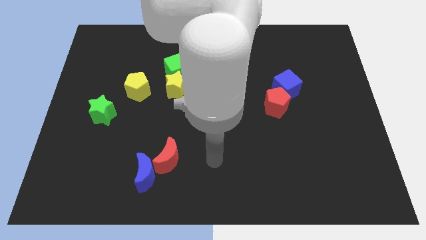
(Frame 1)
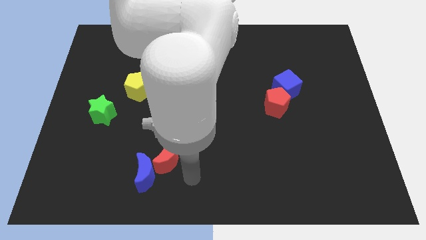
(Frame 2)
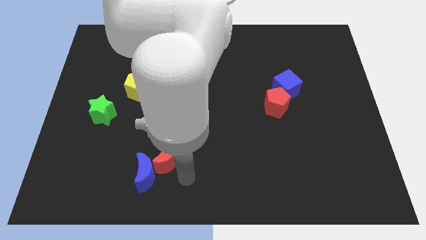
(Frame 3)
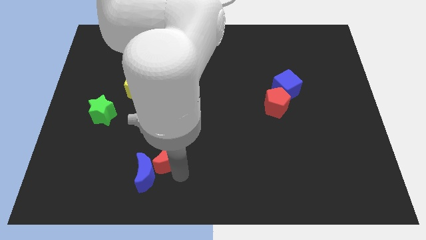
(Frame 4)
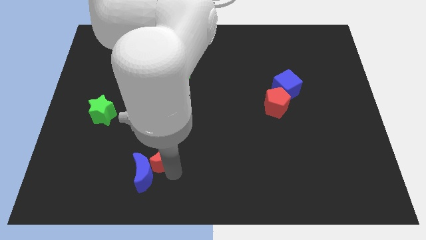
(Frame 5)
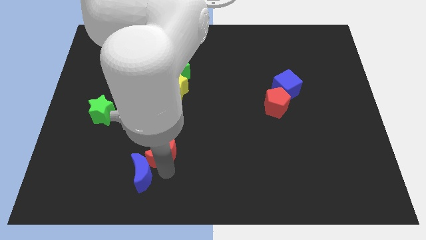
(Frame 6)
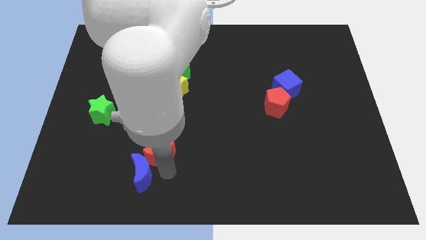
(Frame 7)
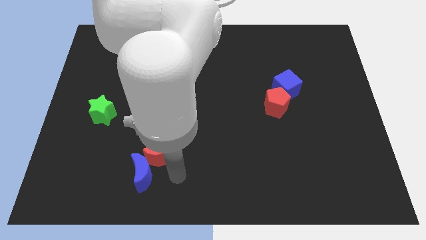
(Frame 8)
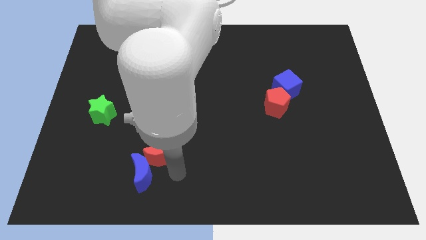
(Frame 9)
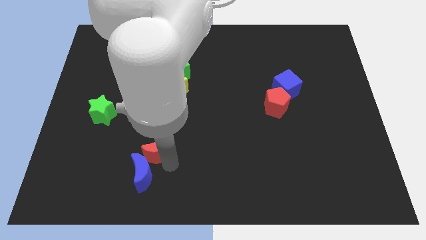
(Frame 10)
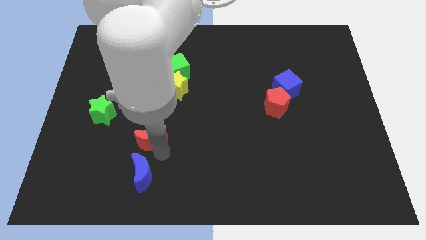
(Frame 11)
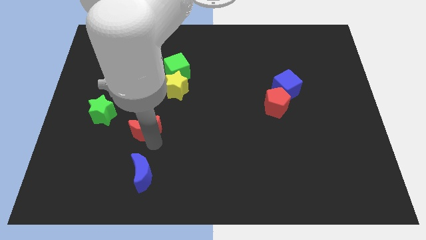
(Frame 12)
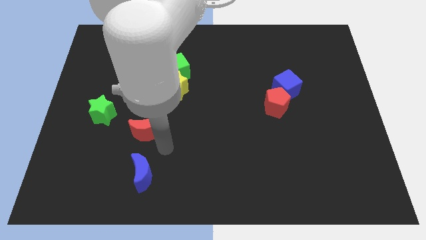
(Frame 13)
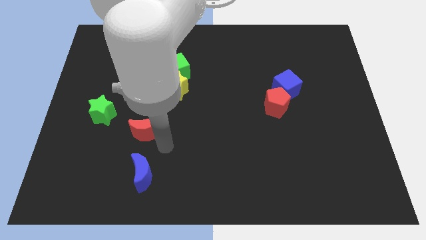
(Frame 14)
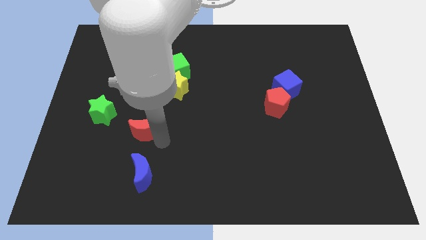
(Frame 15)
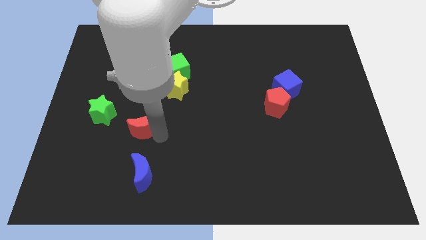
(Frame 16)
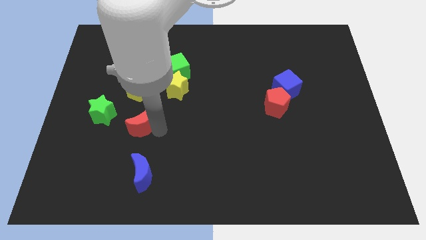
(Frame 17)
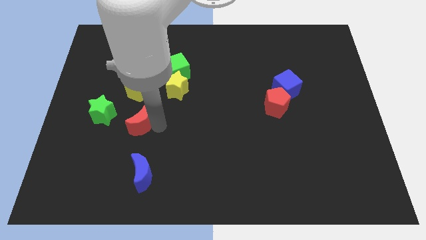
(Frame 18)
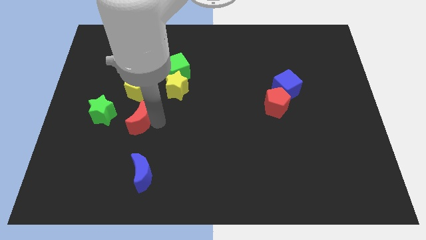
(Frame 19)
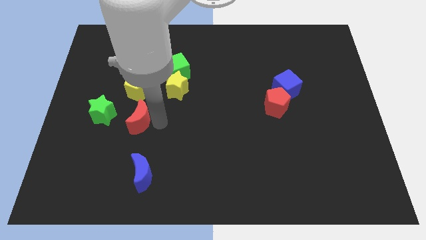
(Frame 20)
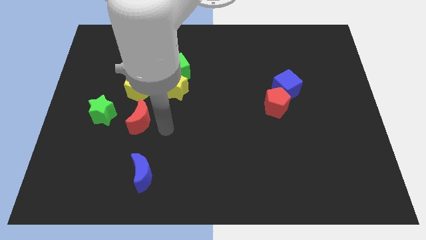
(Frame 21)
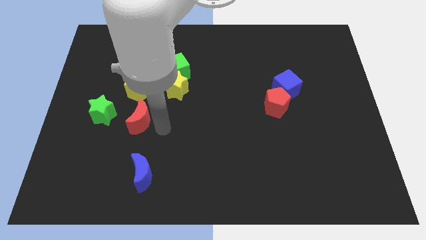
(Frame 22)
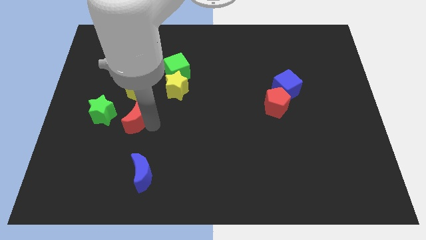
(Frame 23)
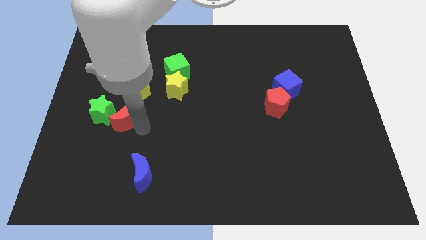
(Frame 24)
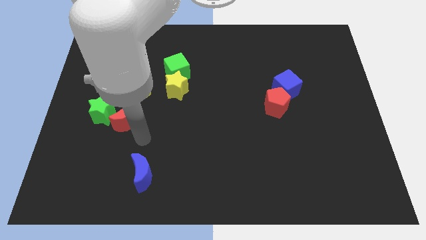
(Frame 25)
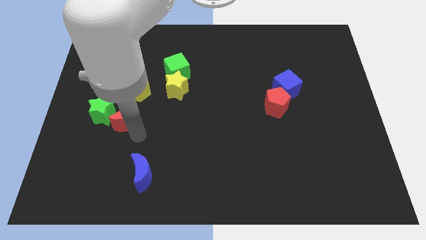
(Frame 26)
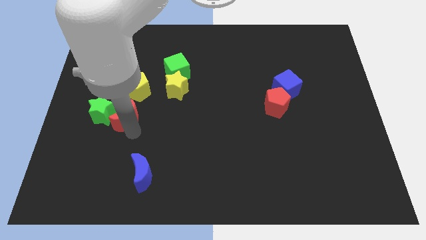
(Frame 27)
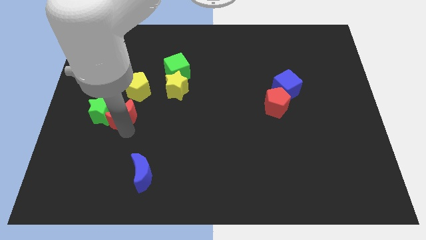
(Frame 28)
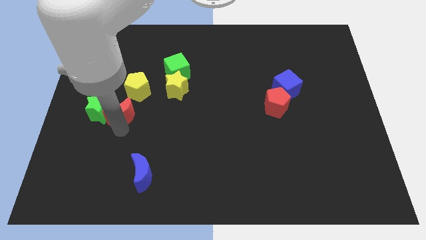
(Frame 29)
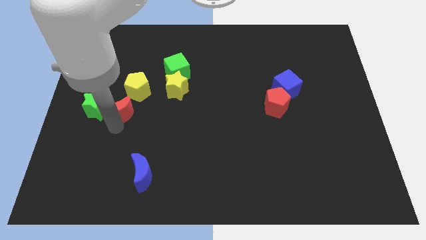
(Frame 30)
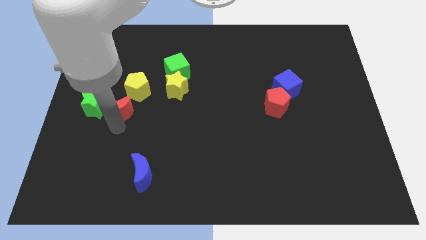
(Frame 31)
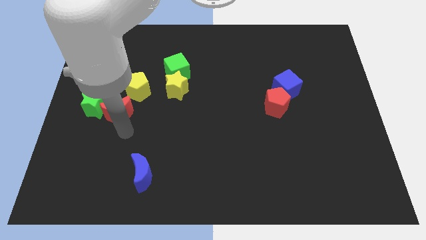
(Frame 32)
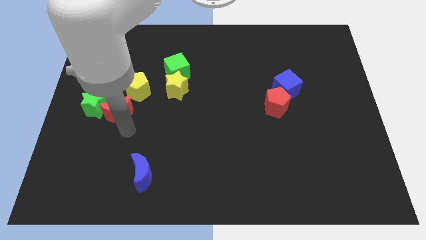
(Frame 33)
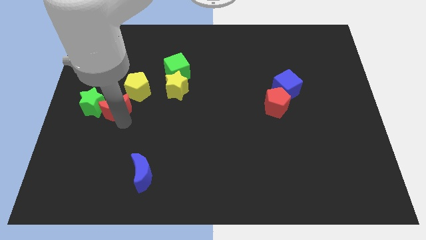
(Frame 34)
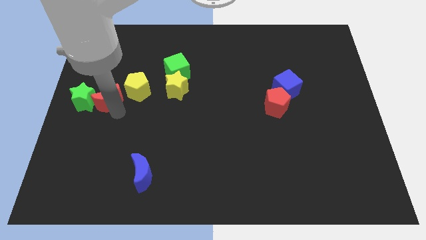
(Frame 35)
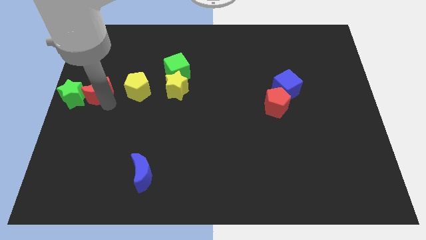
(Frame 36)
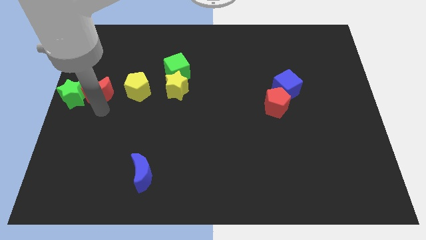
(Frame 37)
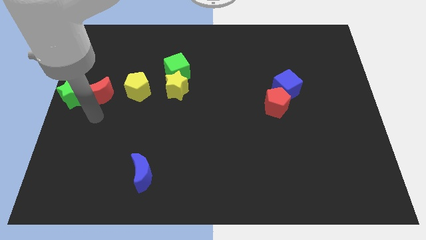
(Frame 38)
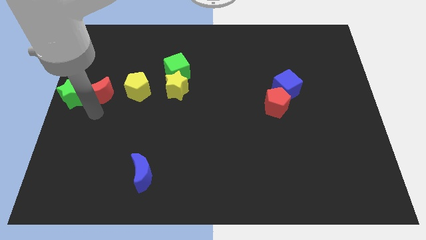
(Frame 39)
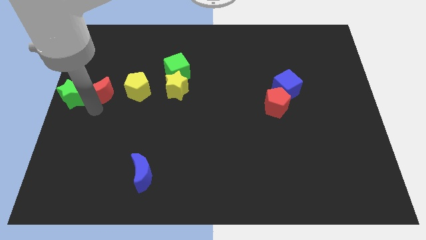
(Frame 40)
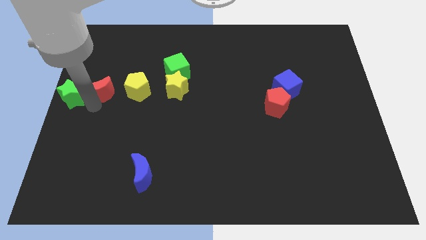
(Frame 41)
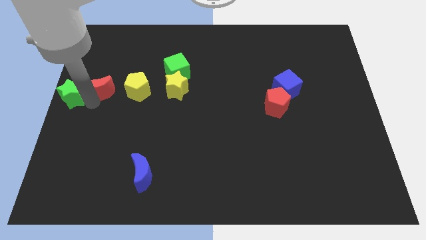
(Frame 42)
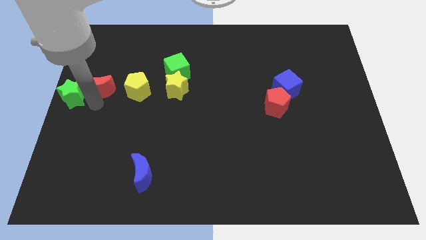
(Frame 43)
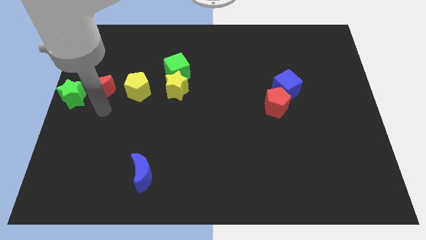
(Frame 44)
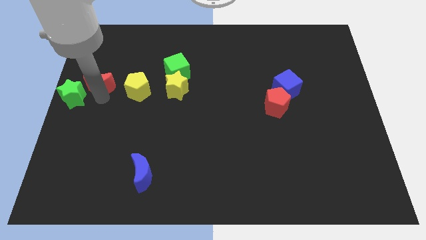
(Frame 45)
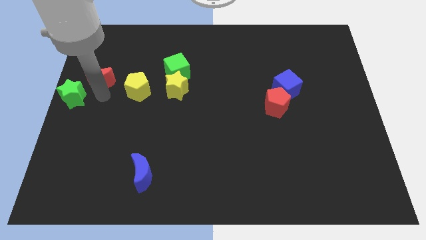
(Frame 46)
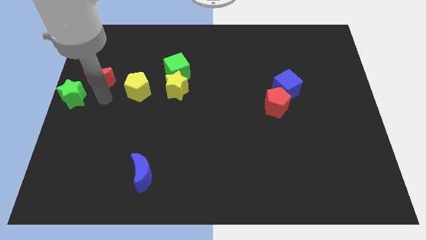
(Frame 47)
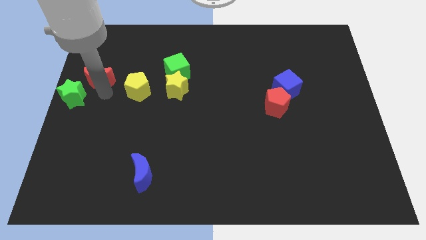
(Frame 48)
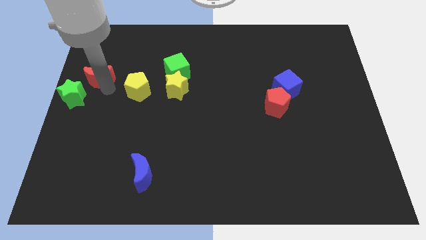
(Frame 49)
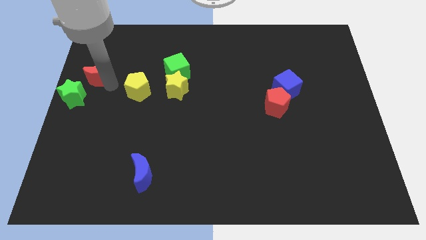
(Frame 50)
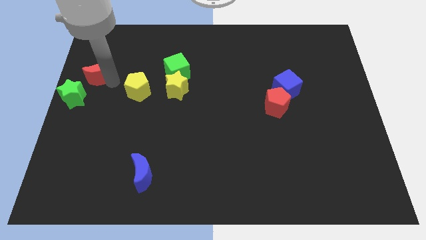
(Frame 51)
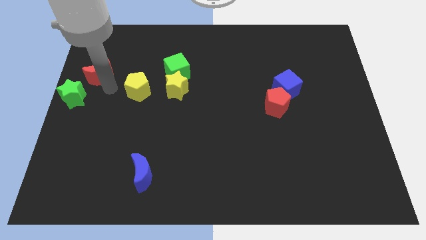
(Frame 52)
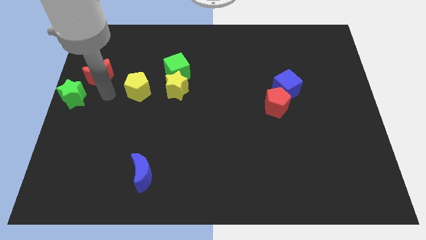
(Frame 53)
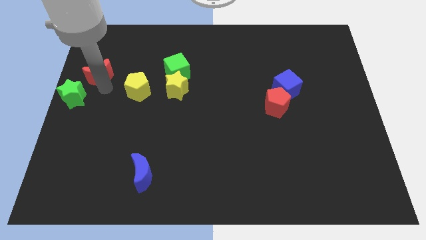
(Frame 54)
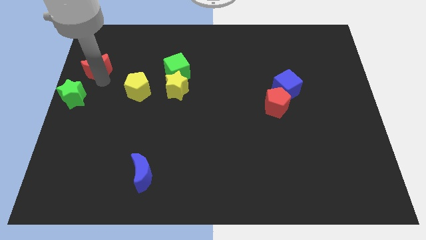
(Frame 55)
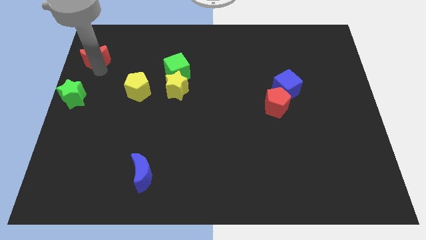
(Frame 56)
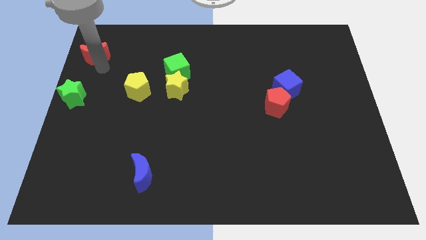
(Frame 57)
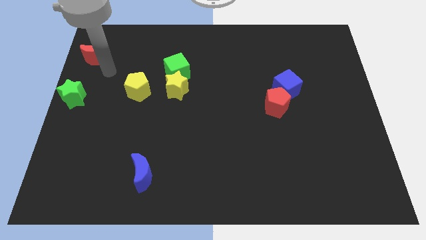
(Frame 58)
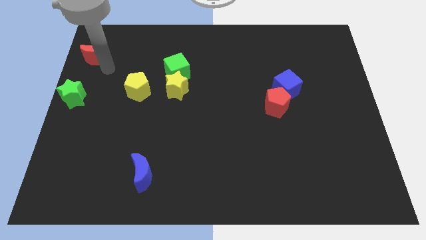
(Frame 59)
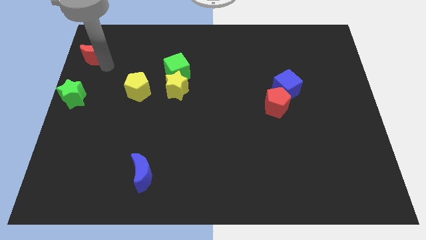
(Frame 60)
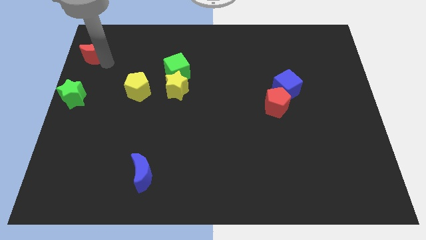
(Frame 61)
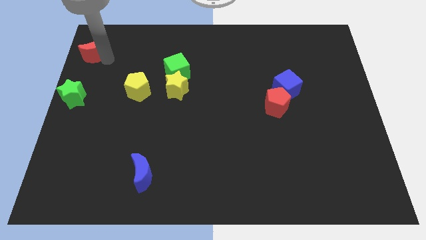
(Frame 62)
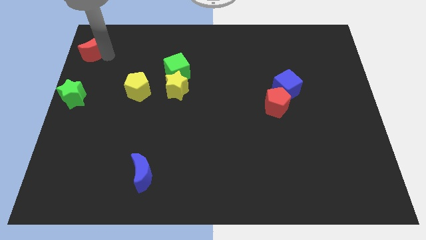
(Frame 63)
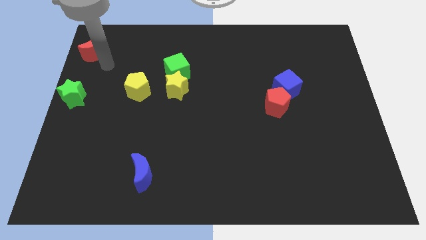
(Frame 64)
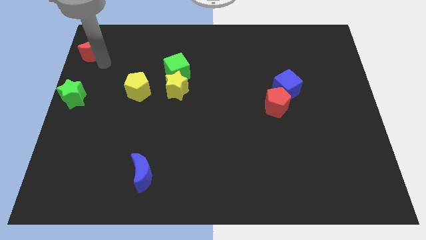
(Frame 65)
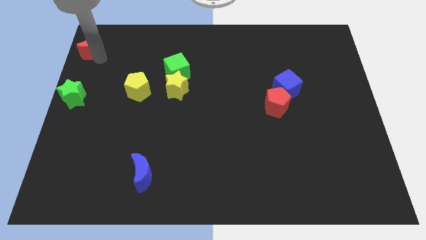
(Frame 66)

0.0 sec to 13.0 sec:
slide the red moon to the top left of the board
